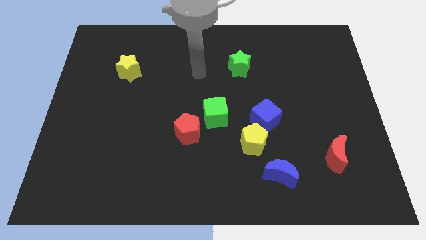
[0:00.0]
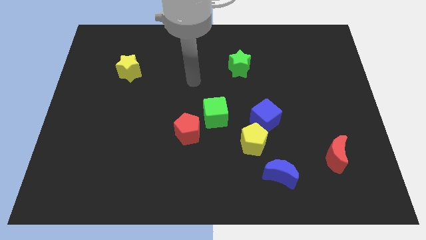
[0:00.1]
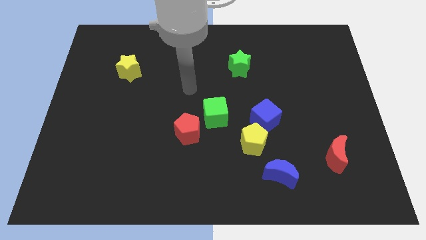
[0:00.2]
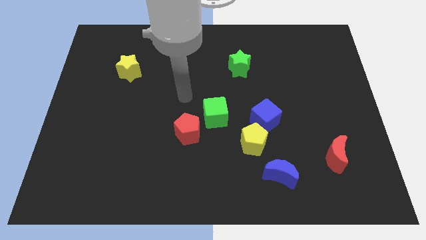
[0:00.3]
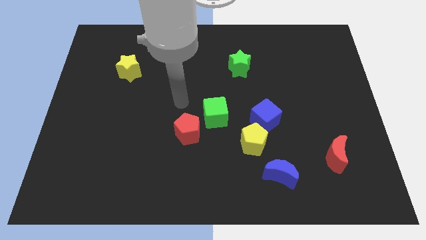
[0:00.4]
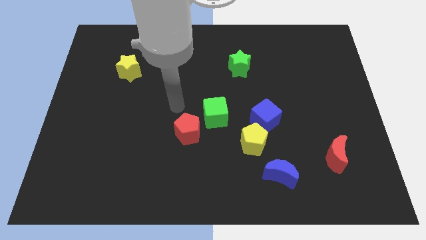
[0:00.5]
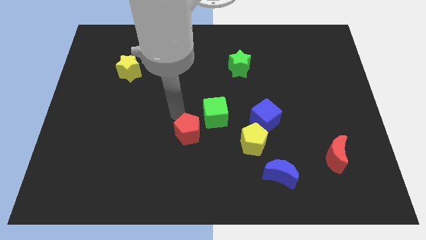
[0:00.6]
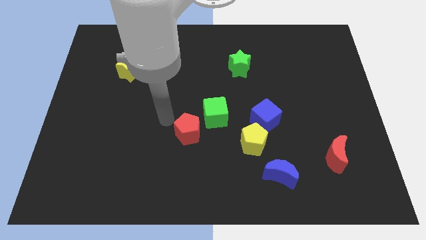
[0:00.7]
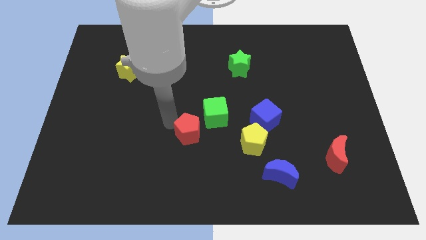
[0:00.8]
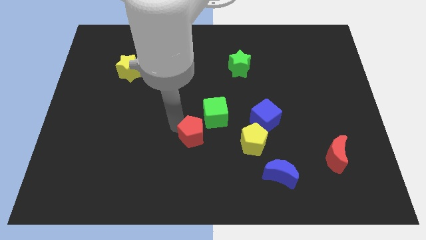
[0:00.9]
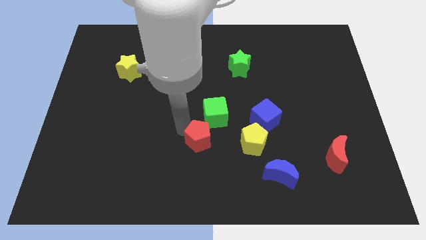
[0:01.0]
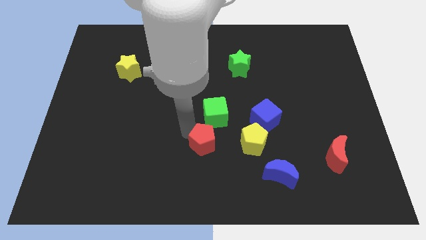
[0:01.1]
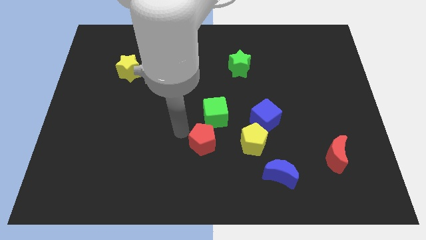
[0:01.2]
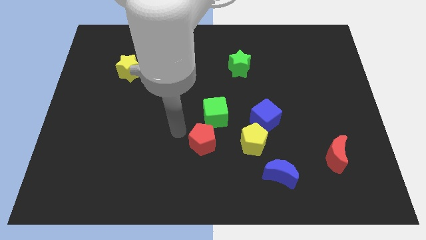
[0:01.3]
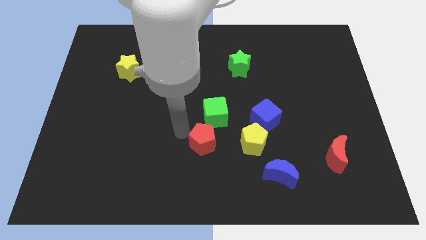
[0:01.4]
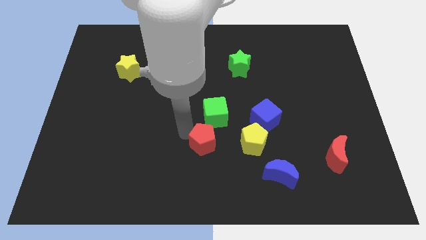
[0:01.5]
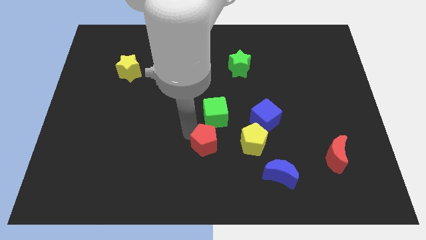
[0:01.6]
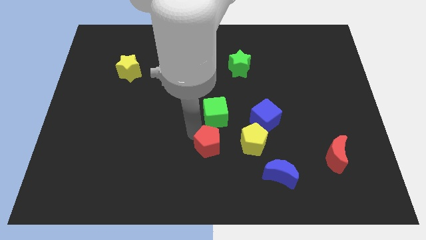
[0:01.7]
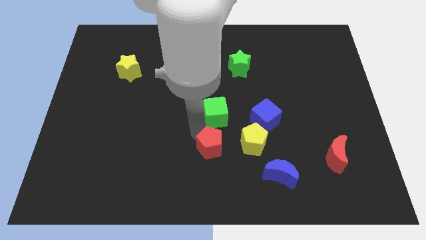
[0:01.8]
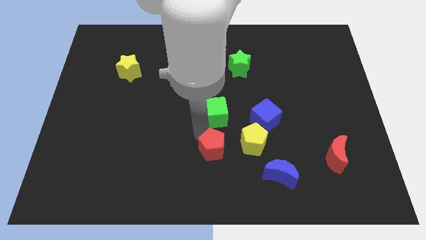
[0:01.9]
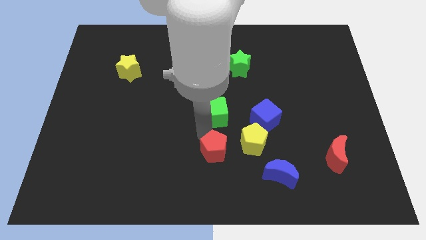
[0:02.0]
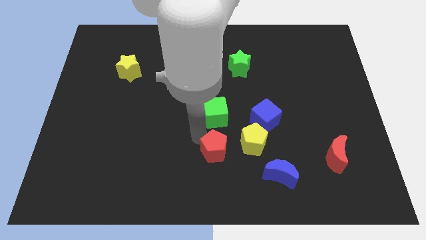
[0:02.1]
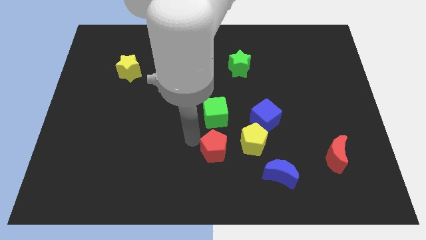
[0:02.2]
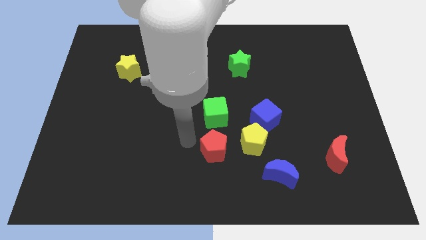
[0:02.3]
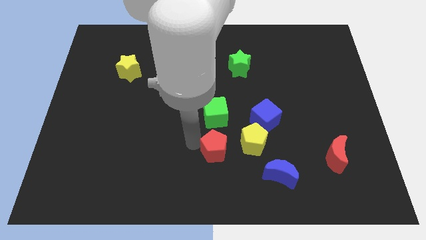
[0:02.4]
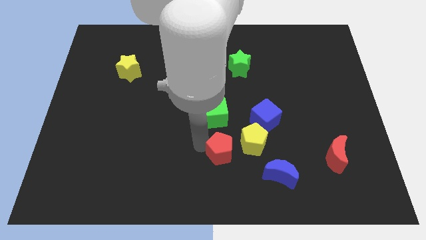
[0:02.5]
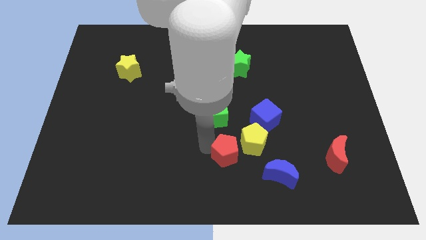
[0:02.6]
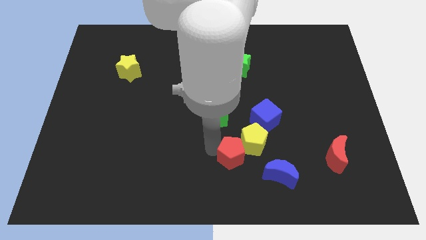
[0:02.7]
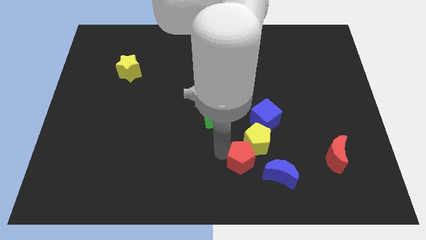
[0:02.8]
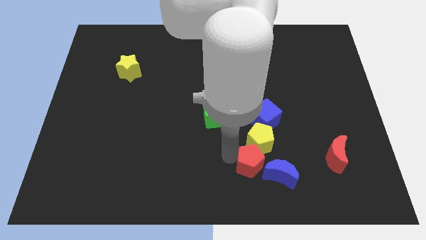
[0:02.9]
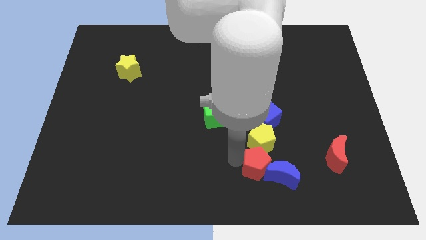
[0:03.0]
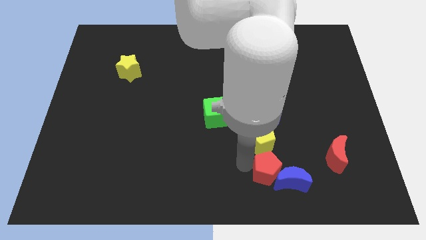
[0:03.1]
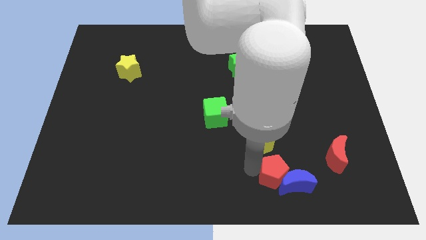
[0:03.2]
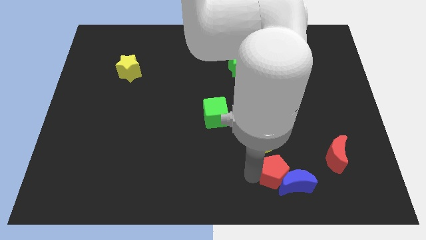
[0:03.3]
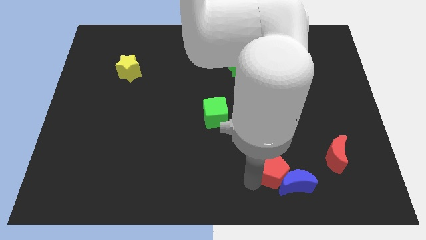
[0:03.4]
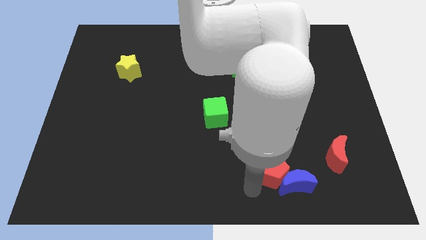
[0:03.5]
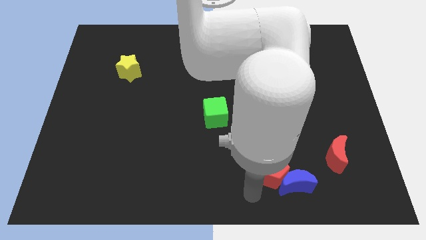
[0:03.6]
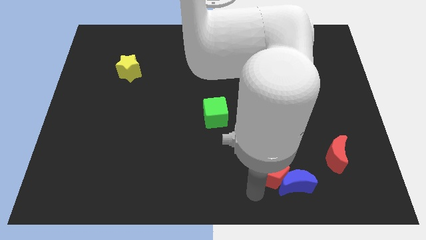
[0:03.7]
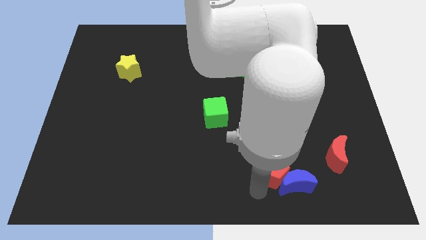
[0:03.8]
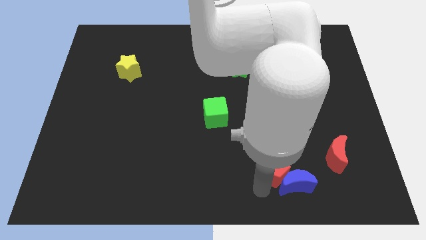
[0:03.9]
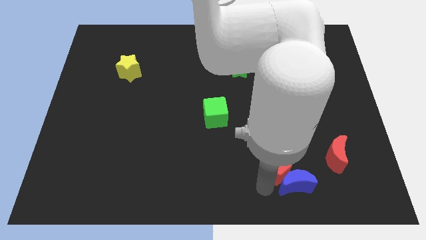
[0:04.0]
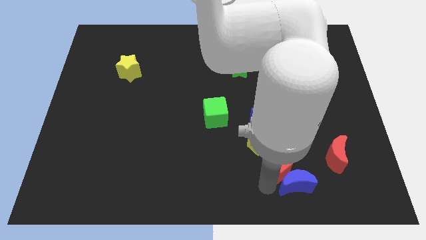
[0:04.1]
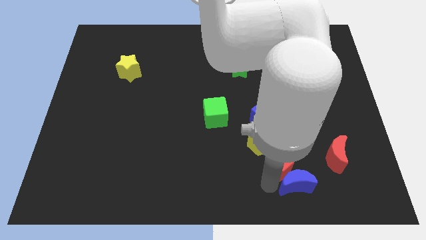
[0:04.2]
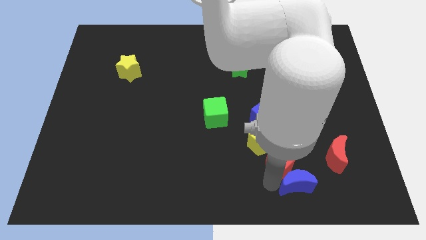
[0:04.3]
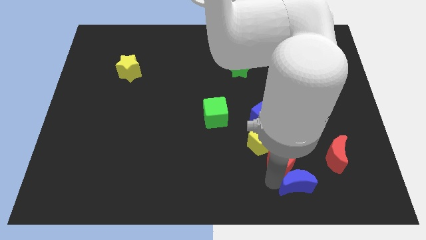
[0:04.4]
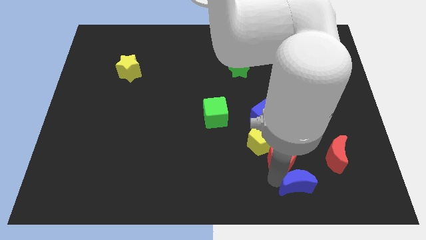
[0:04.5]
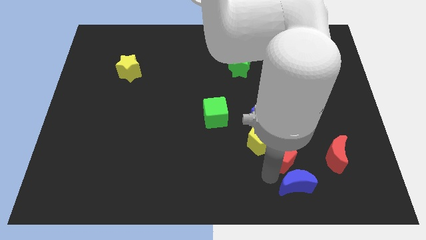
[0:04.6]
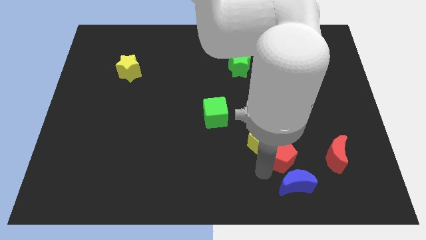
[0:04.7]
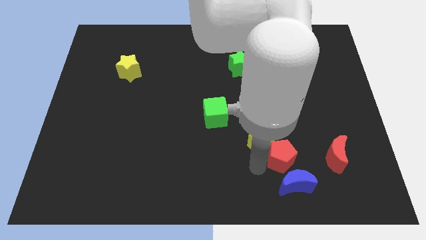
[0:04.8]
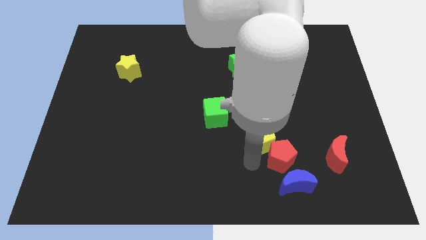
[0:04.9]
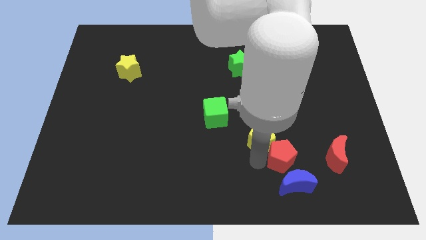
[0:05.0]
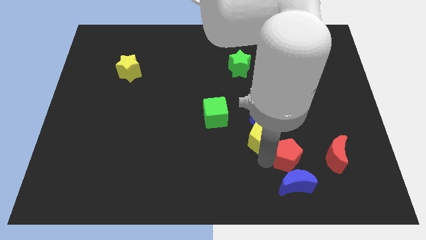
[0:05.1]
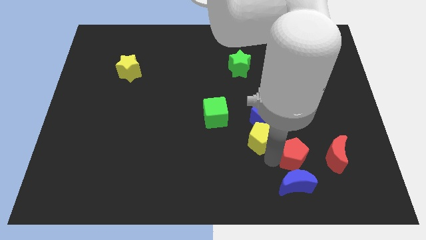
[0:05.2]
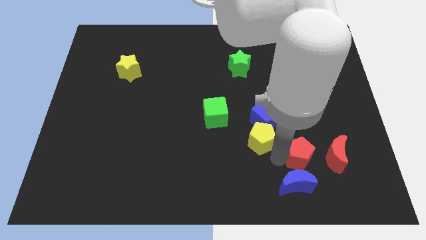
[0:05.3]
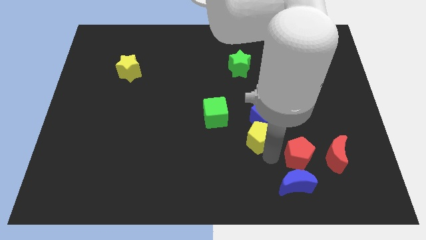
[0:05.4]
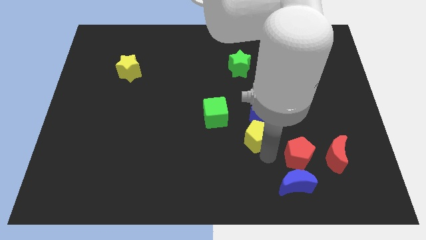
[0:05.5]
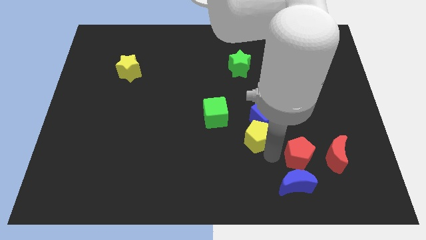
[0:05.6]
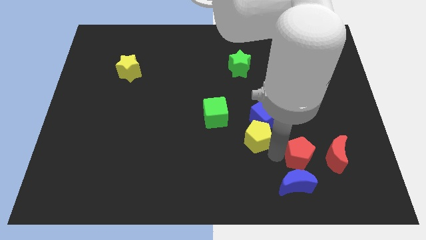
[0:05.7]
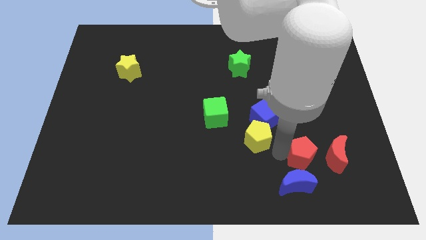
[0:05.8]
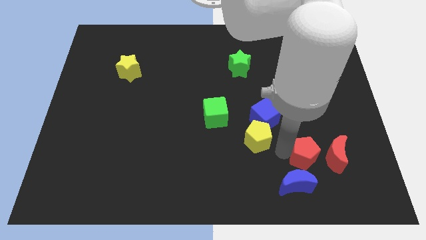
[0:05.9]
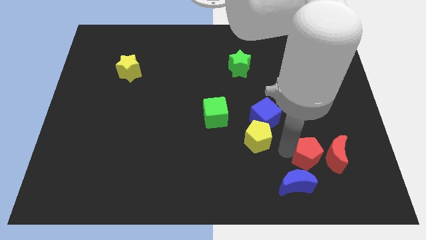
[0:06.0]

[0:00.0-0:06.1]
put the red pentagon next to the red moon
